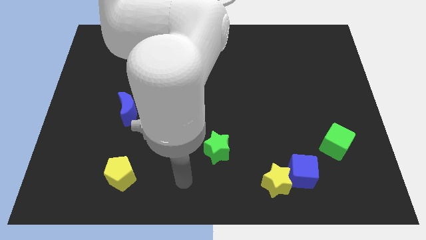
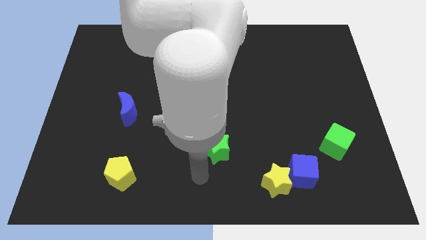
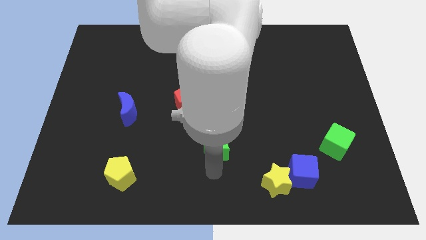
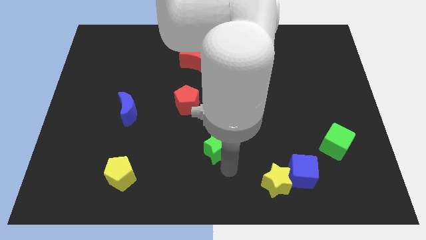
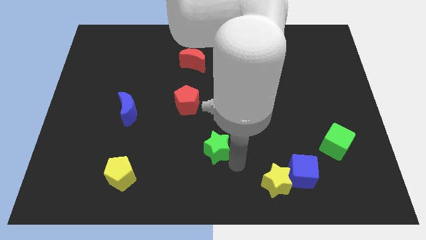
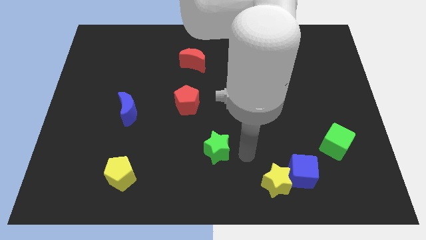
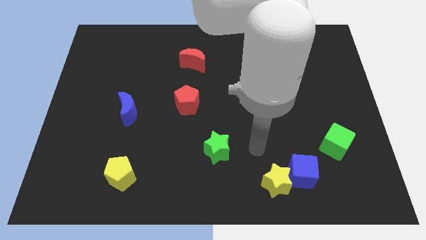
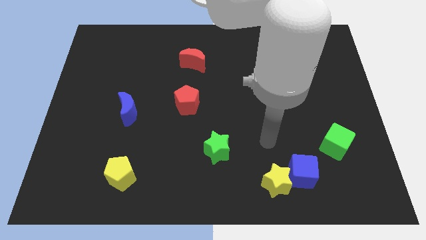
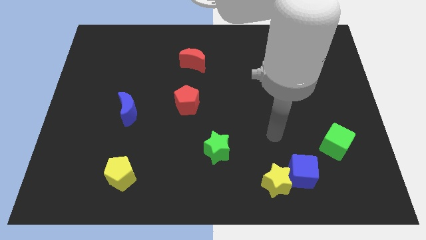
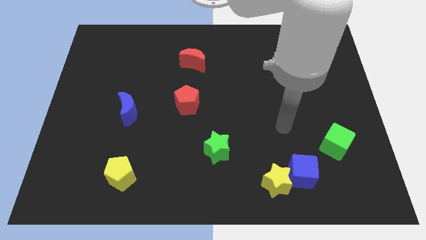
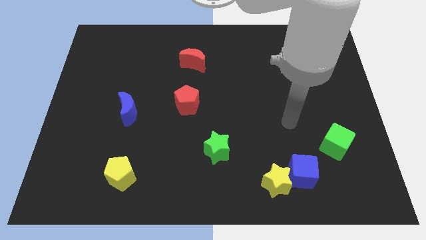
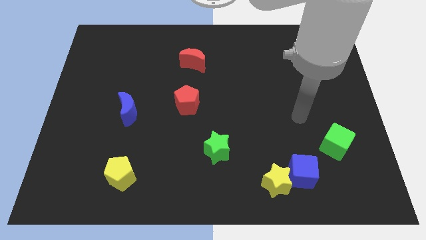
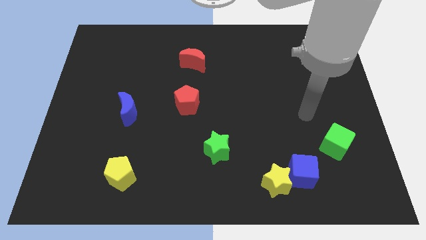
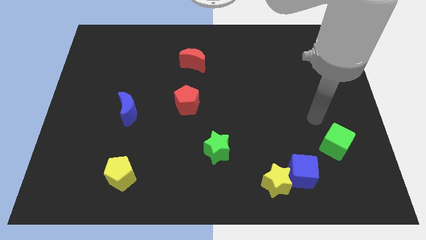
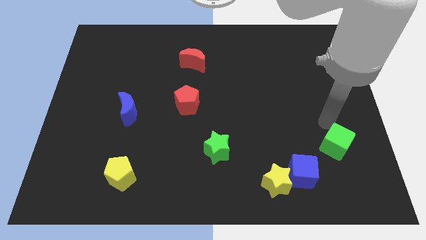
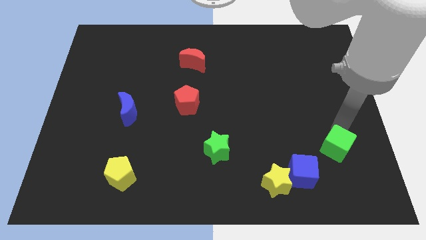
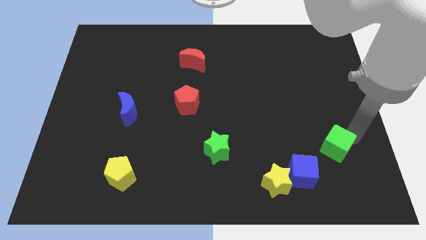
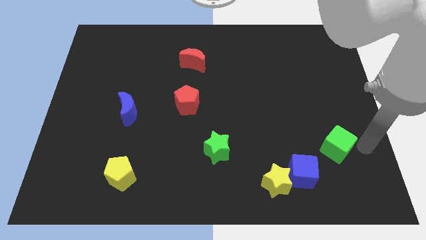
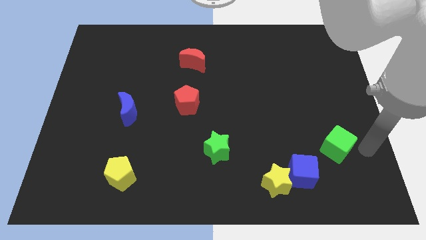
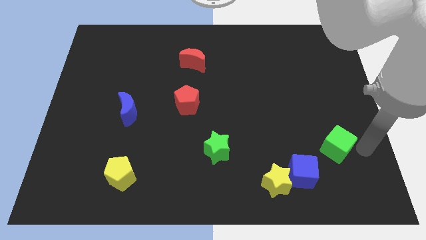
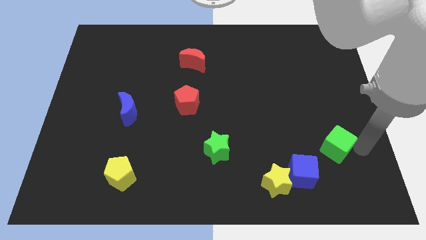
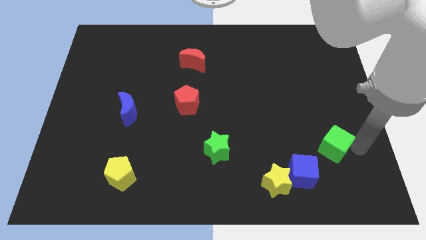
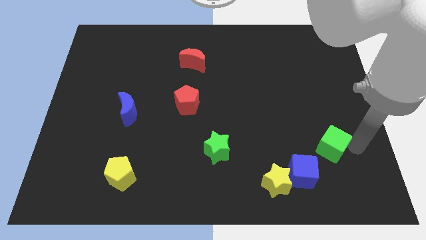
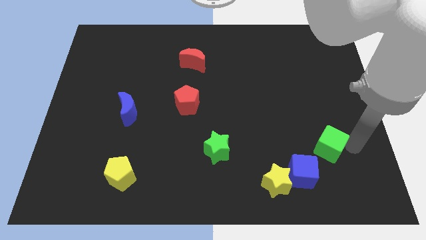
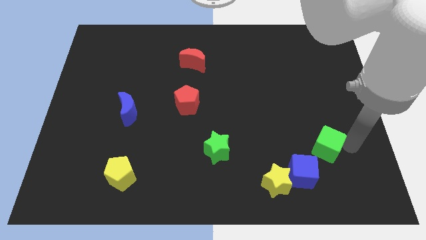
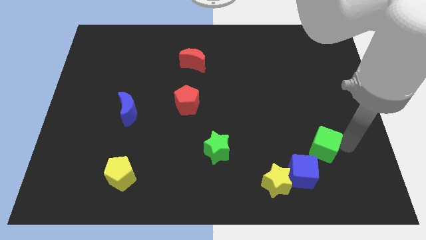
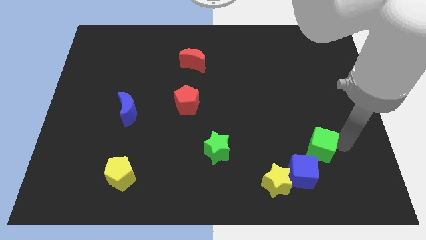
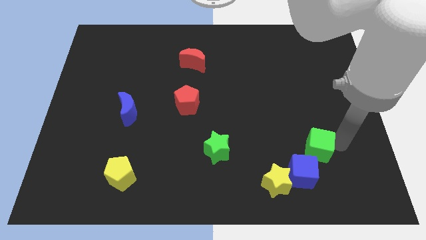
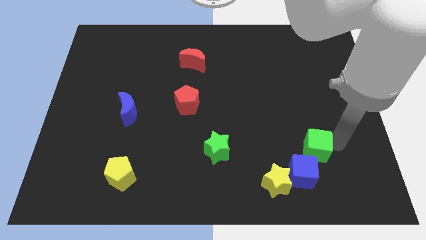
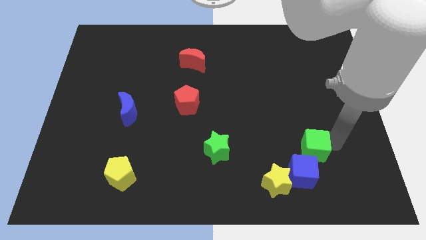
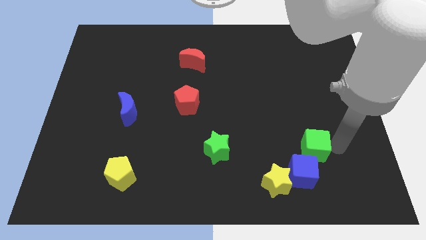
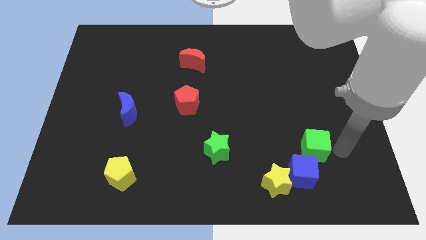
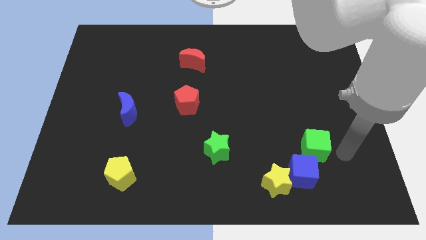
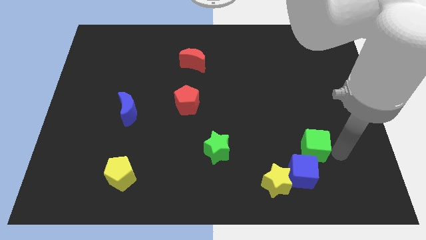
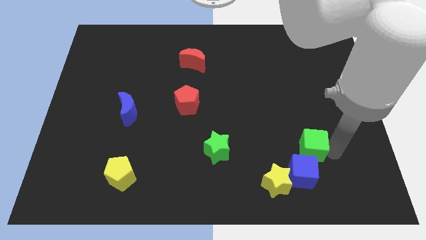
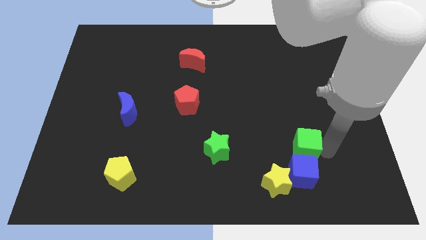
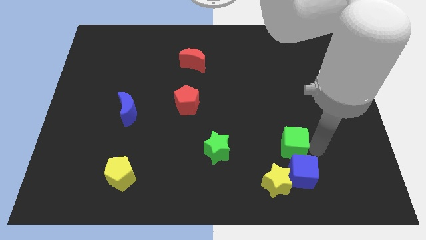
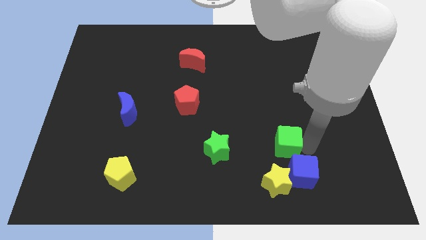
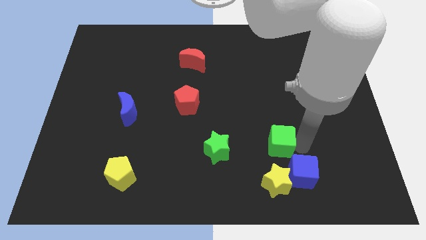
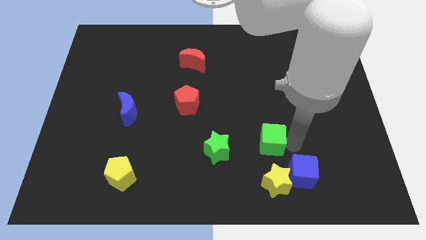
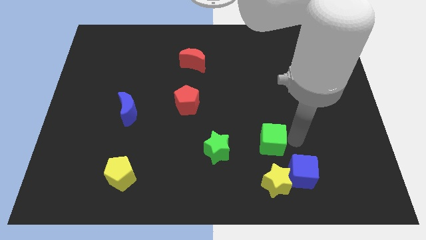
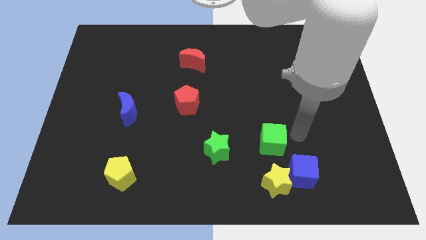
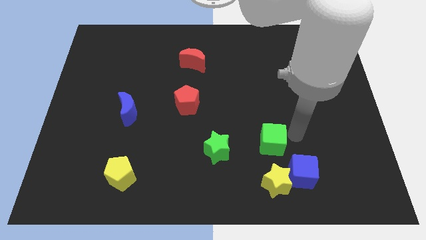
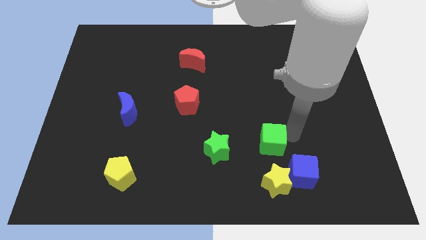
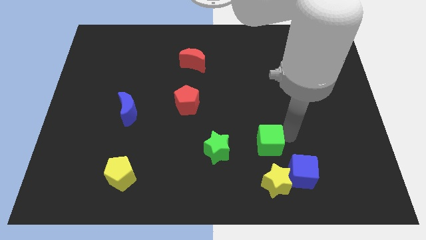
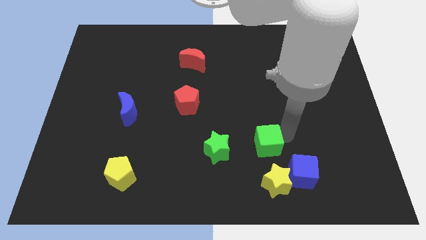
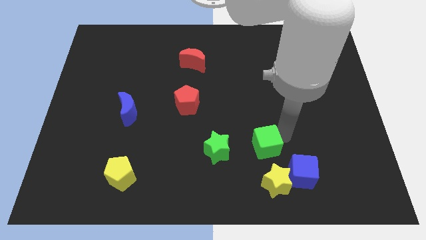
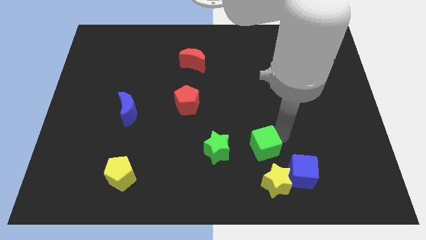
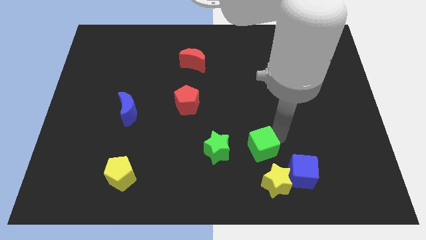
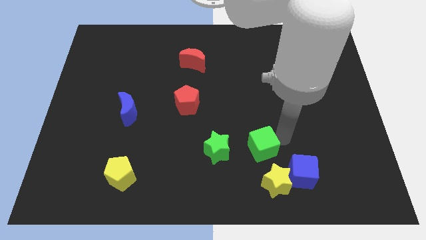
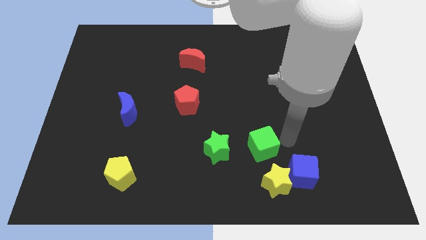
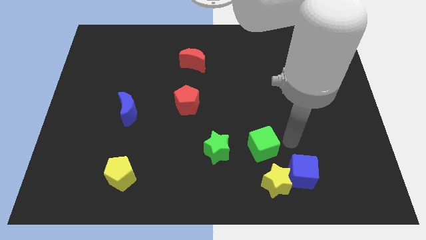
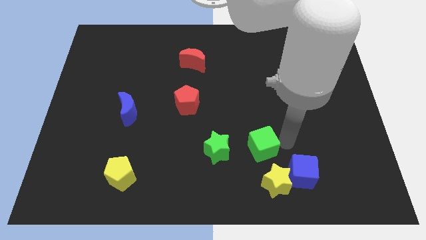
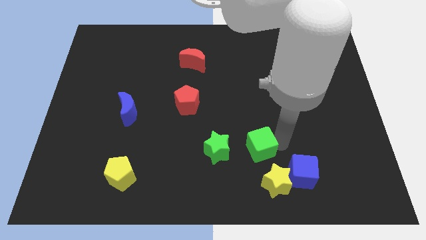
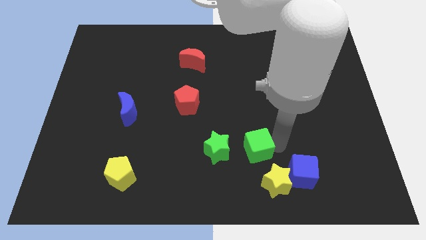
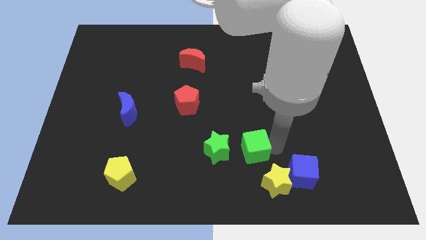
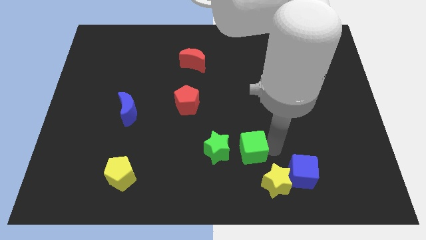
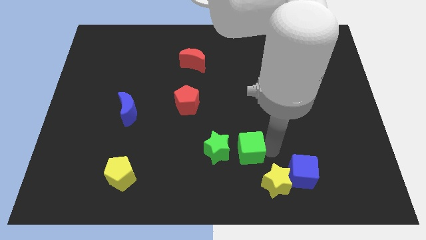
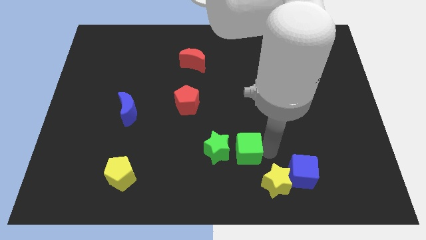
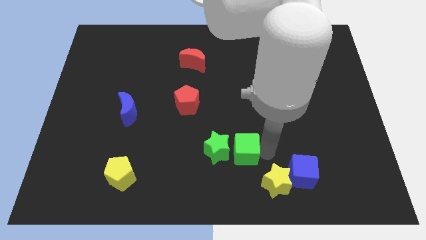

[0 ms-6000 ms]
push the green cube to the green star

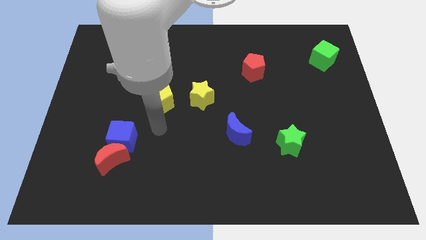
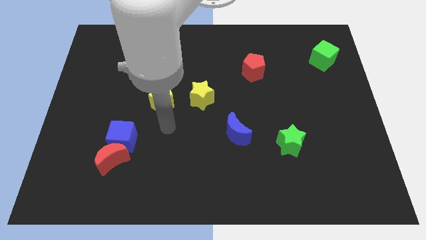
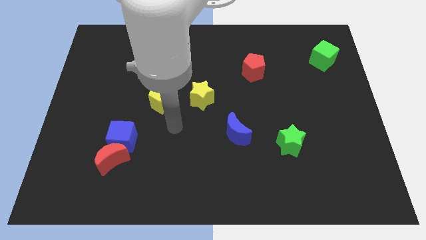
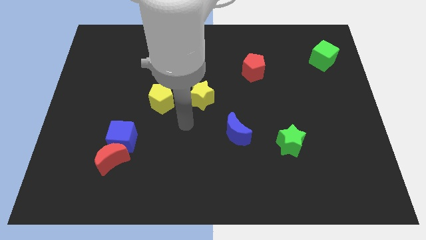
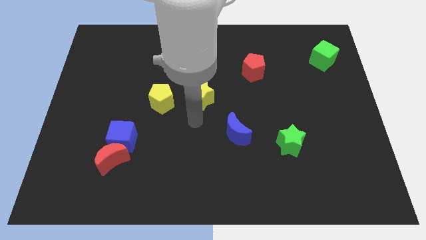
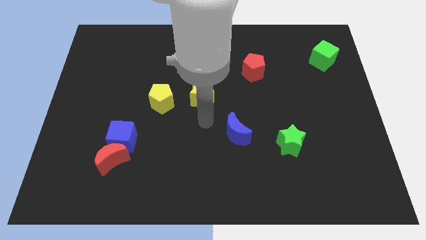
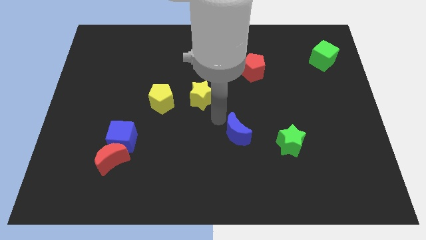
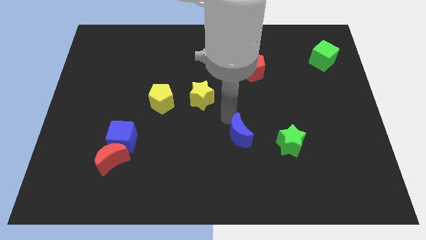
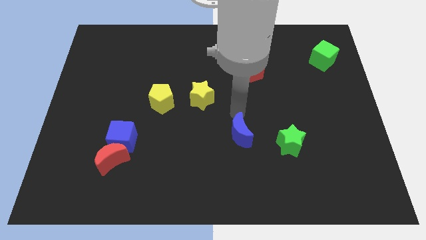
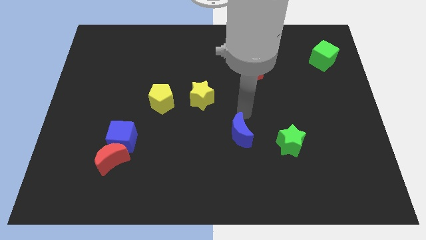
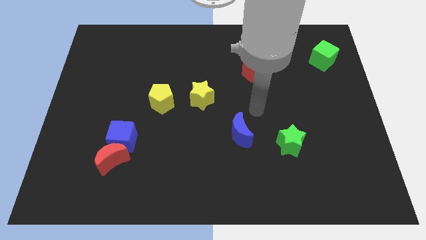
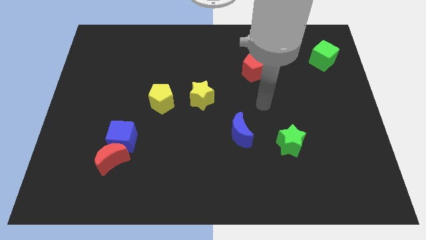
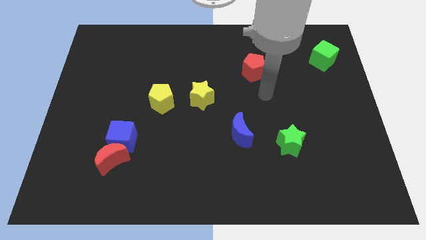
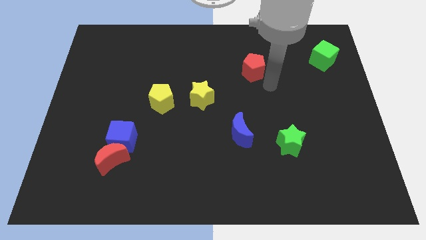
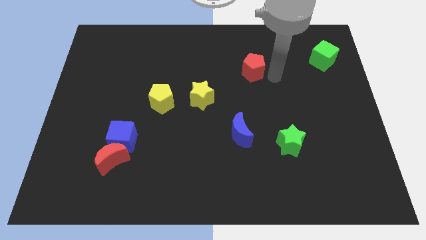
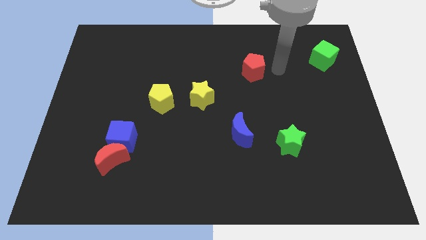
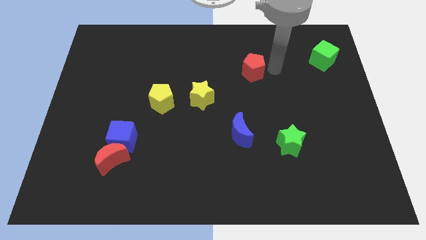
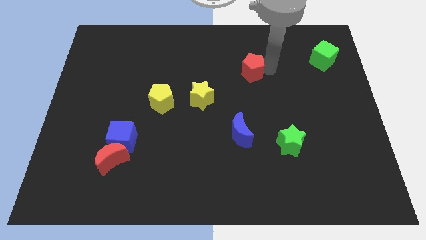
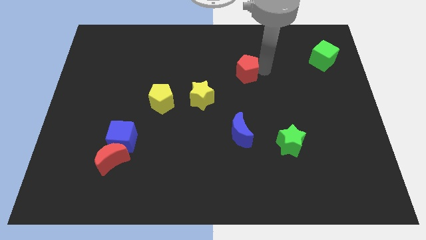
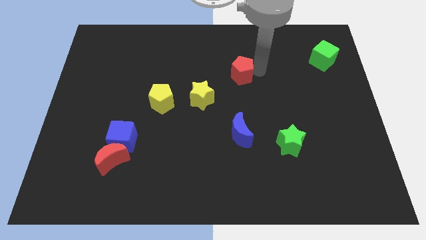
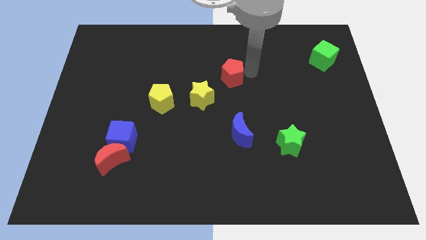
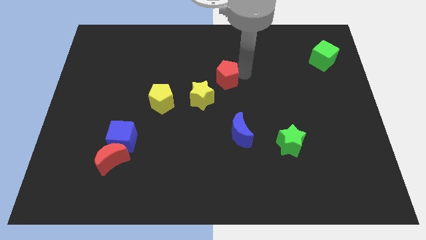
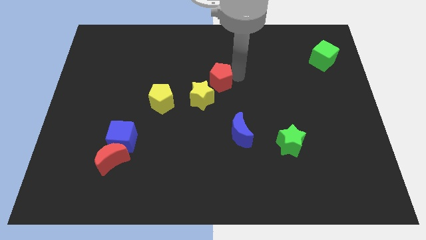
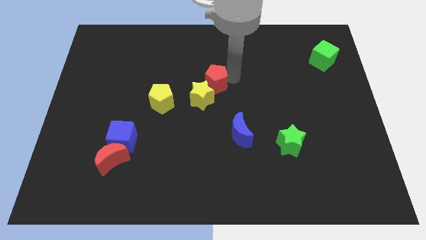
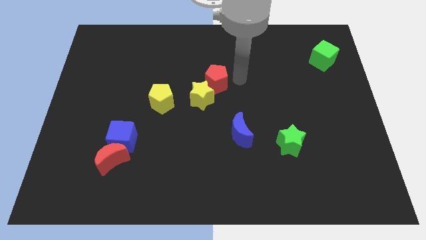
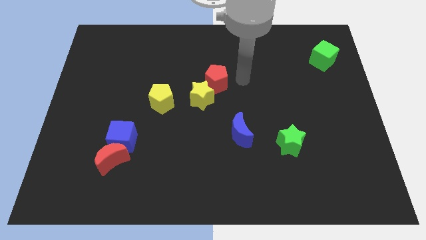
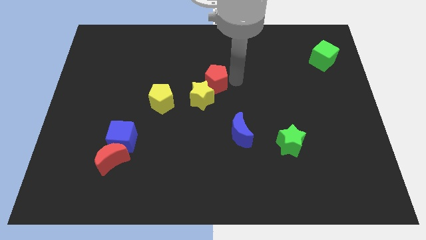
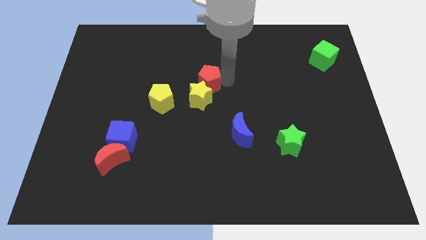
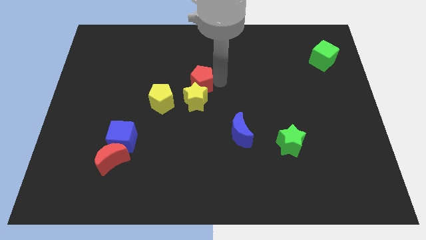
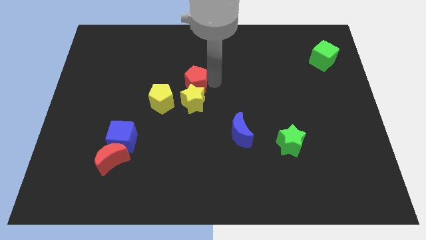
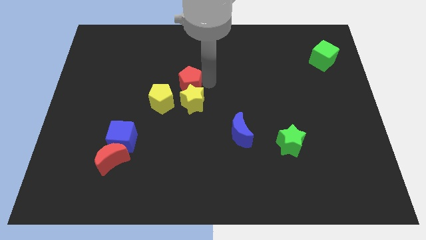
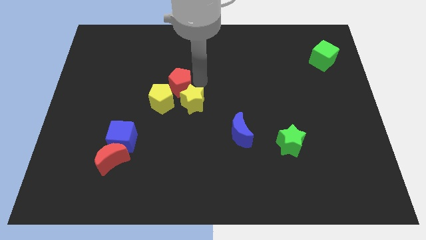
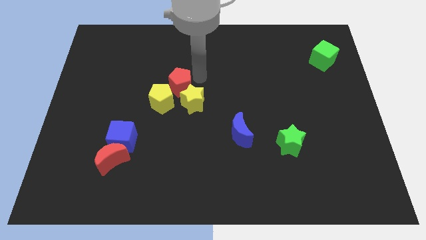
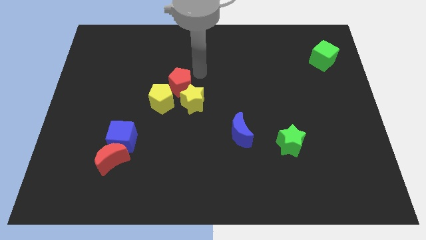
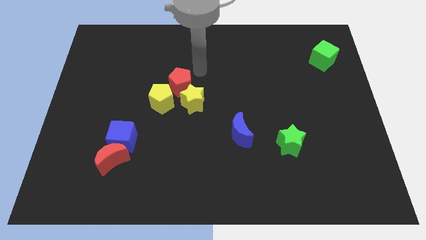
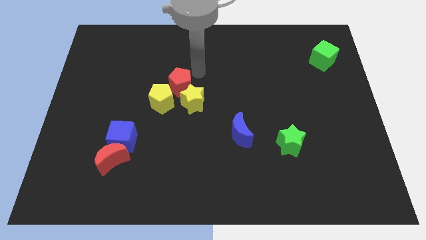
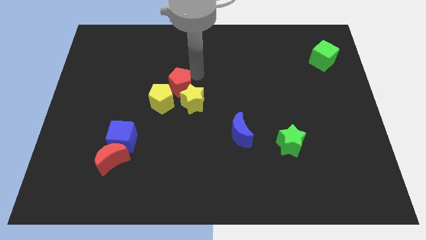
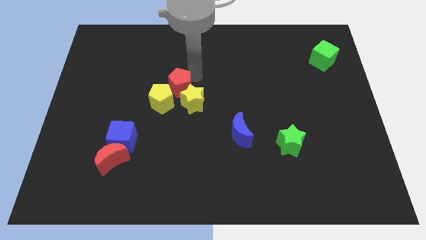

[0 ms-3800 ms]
slide the red pentagon towards the yellow pentagon
